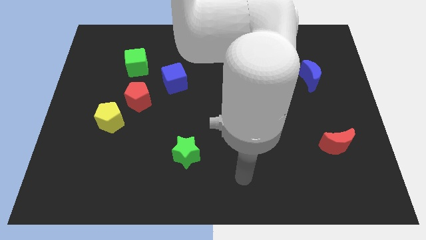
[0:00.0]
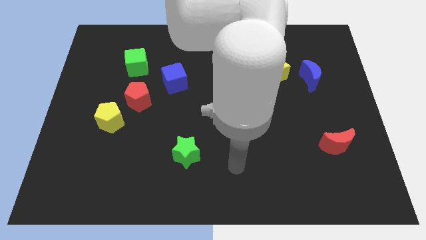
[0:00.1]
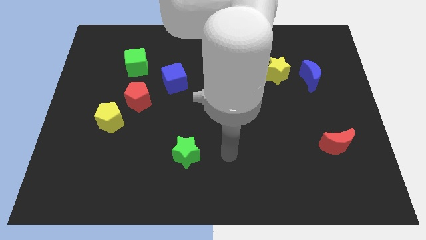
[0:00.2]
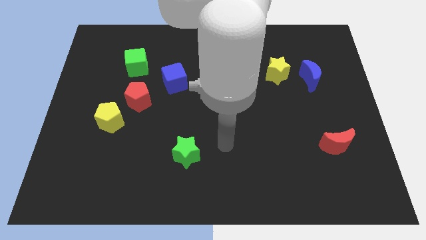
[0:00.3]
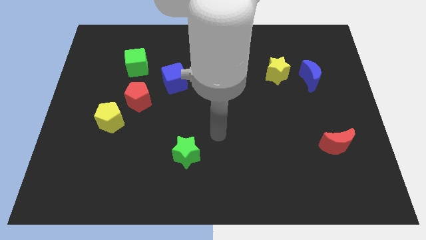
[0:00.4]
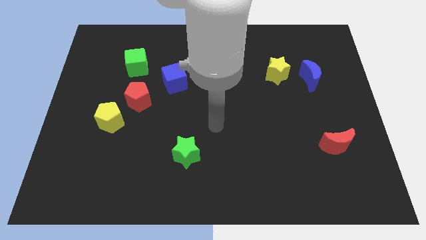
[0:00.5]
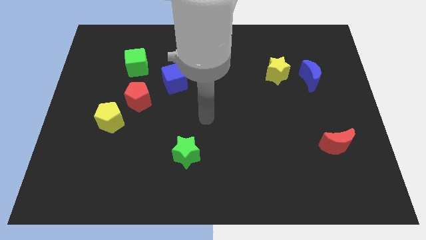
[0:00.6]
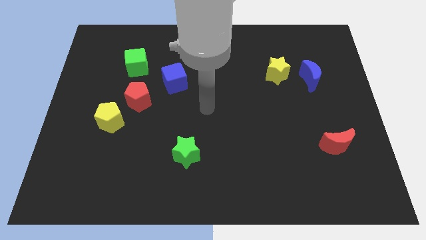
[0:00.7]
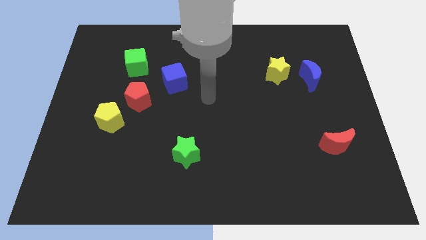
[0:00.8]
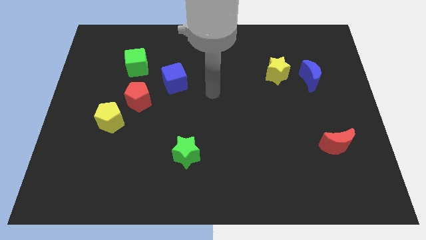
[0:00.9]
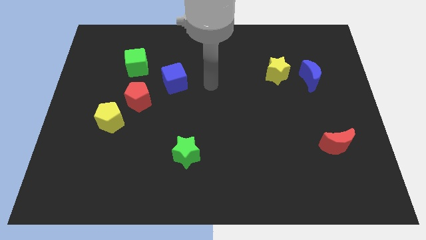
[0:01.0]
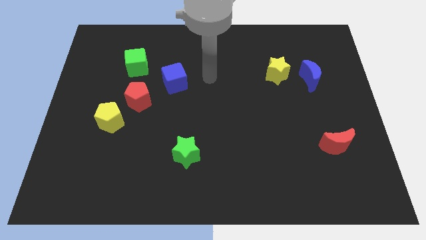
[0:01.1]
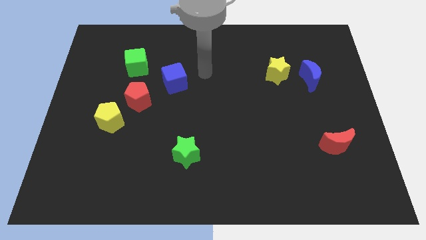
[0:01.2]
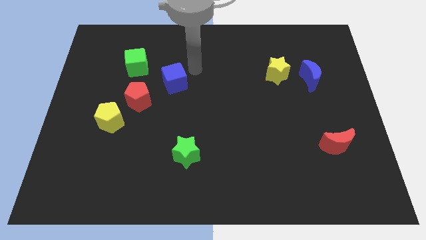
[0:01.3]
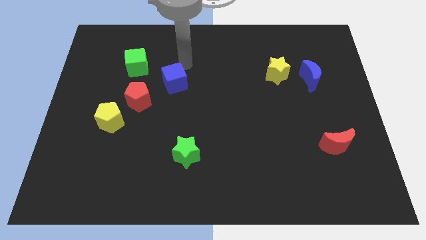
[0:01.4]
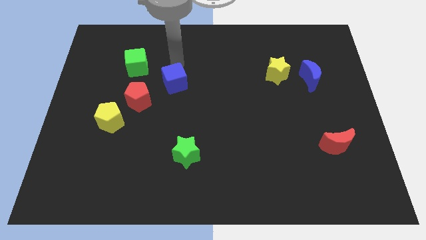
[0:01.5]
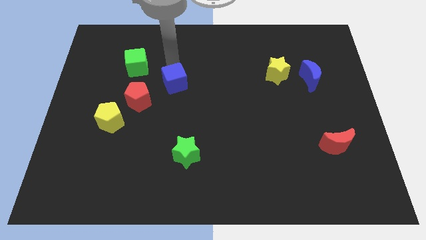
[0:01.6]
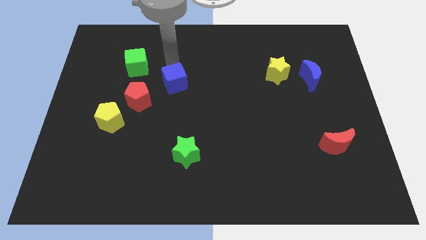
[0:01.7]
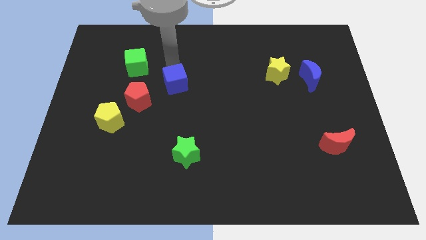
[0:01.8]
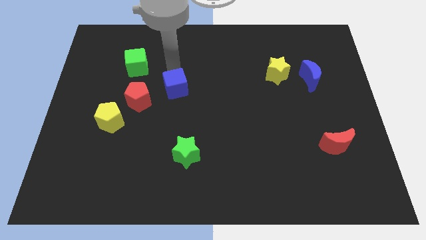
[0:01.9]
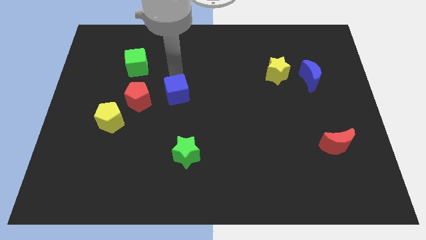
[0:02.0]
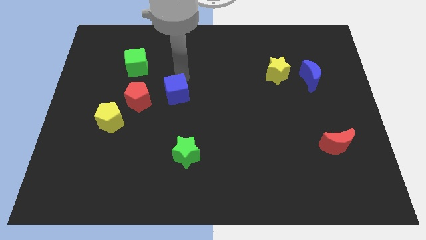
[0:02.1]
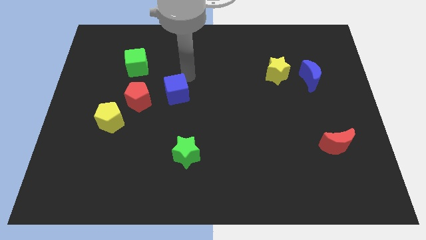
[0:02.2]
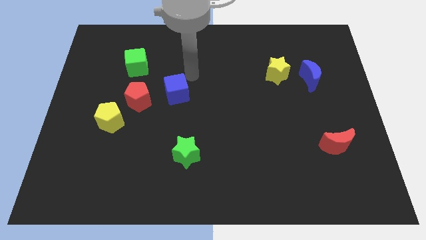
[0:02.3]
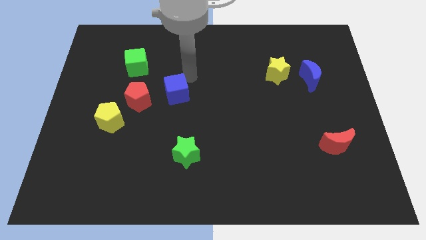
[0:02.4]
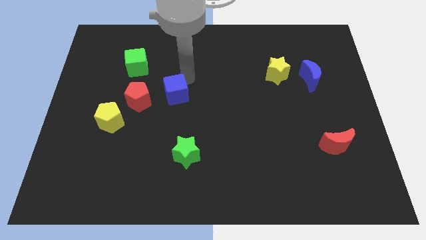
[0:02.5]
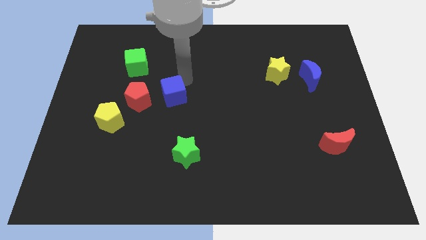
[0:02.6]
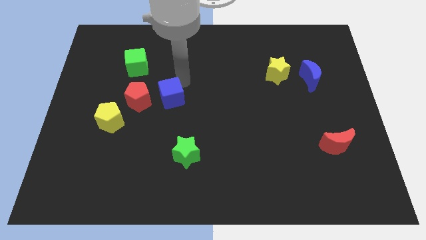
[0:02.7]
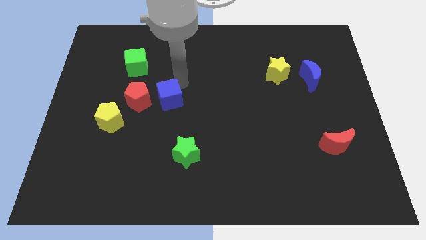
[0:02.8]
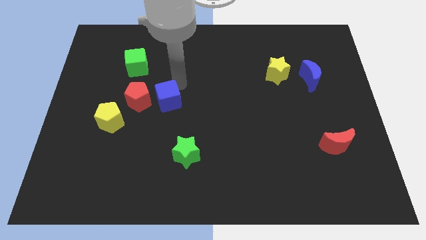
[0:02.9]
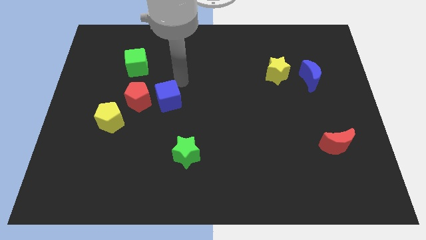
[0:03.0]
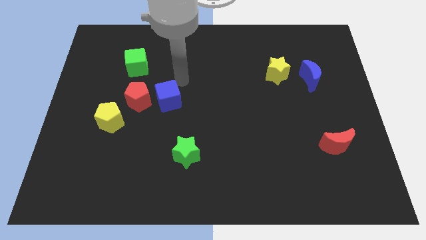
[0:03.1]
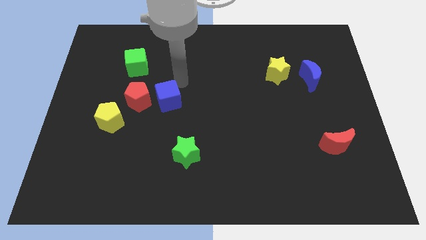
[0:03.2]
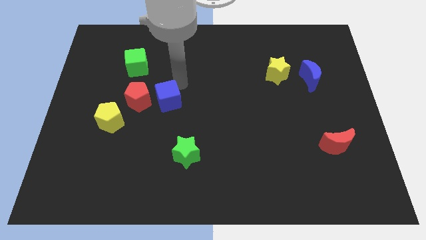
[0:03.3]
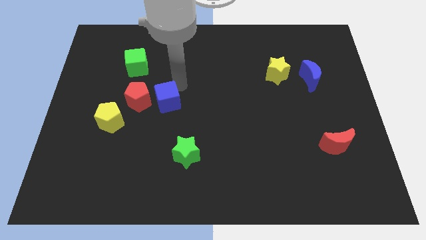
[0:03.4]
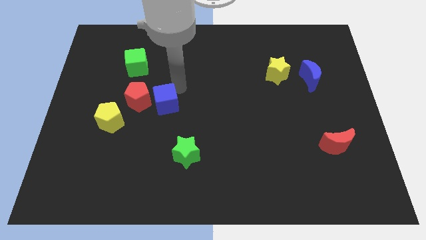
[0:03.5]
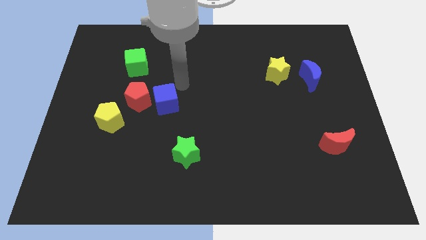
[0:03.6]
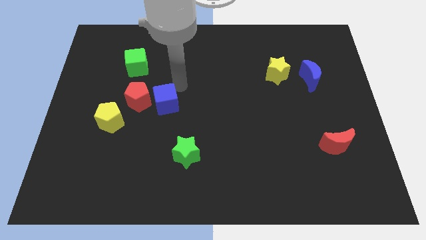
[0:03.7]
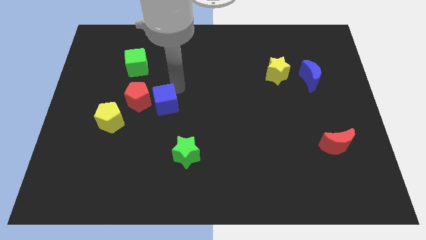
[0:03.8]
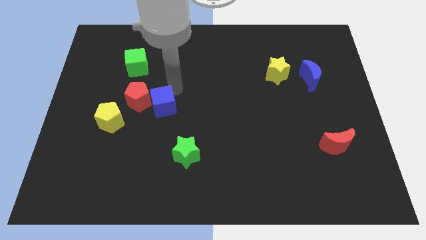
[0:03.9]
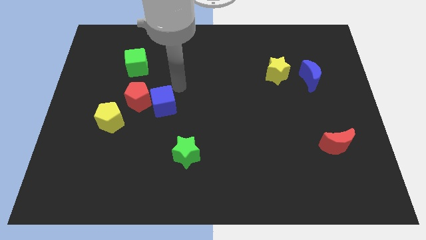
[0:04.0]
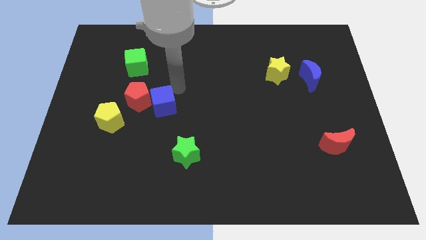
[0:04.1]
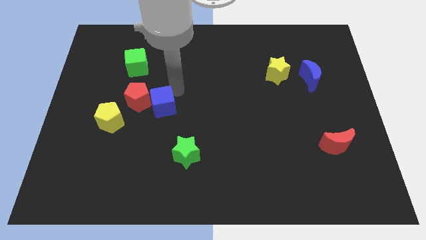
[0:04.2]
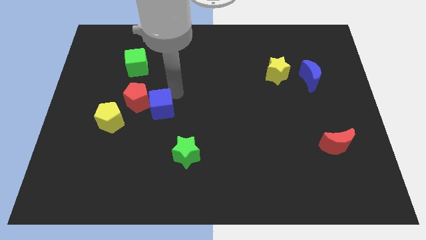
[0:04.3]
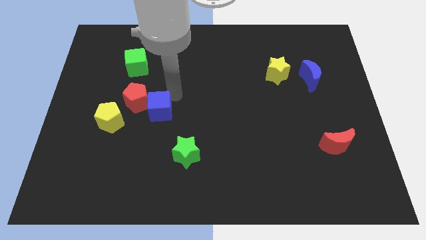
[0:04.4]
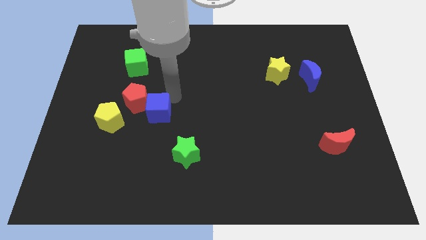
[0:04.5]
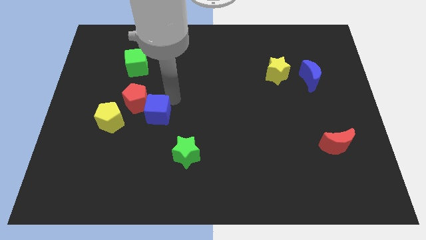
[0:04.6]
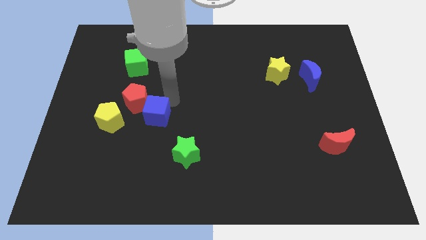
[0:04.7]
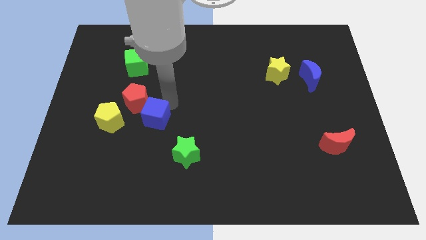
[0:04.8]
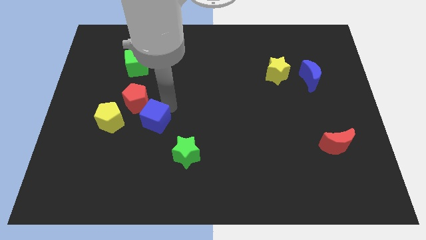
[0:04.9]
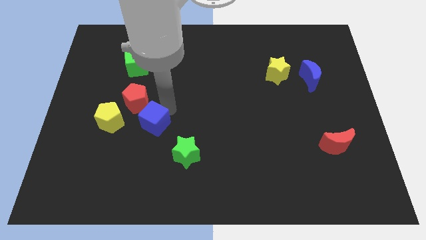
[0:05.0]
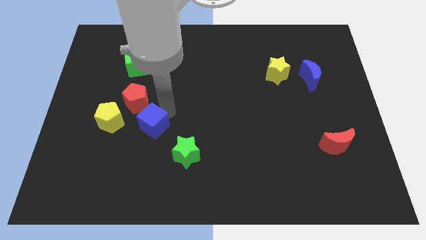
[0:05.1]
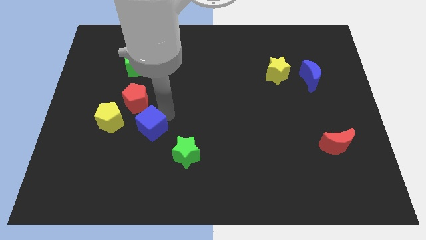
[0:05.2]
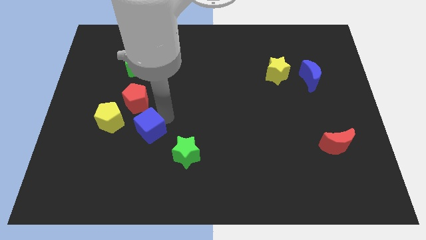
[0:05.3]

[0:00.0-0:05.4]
push the blue cube to the bottom right side of the yellow pentagon

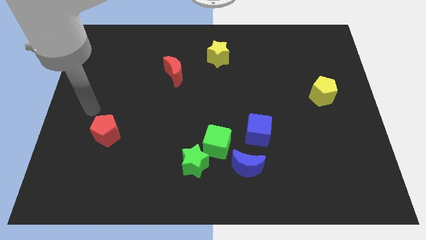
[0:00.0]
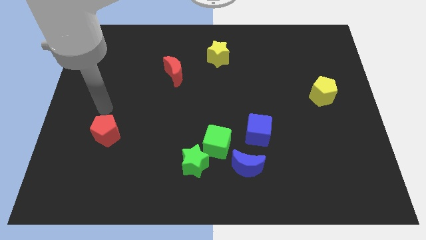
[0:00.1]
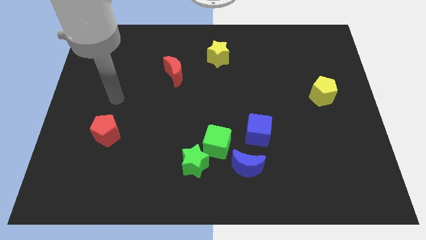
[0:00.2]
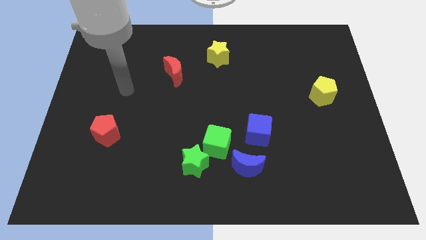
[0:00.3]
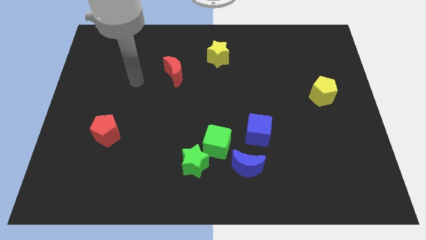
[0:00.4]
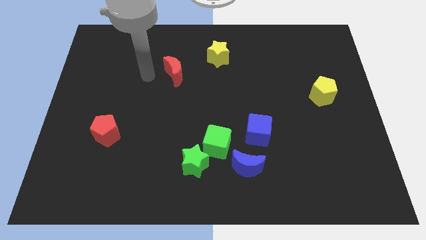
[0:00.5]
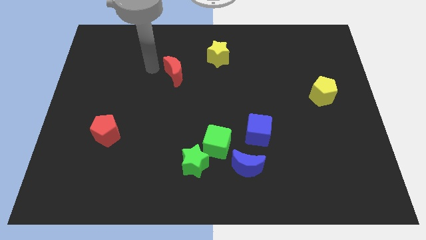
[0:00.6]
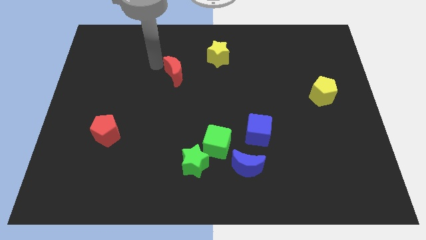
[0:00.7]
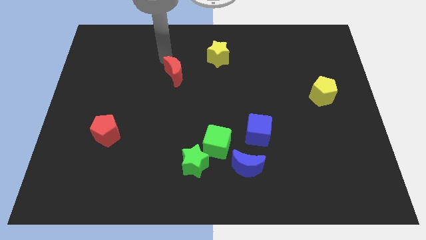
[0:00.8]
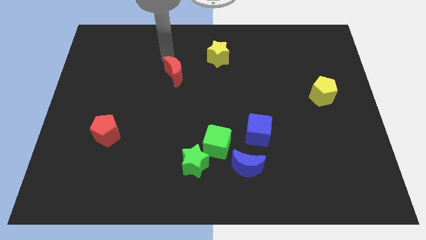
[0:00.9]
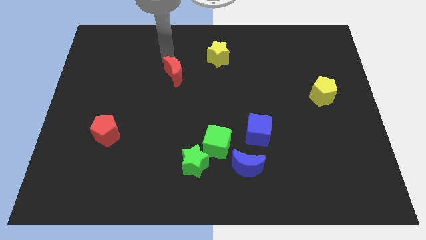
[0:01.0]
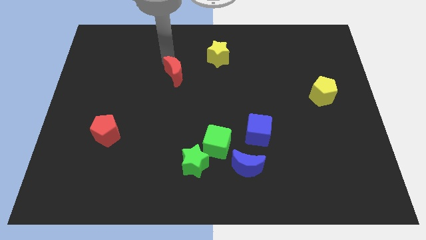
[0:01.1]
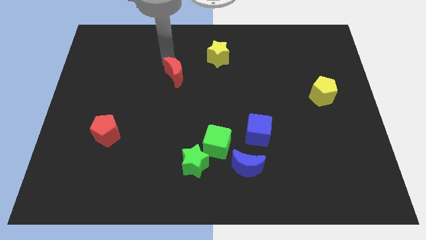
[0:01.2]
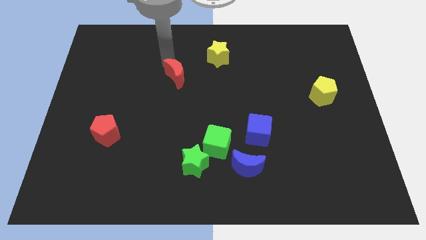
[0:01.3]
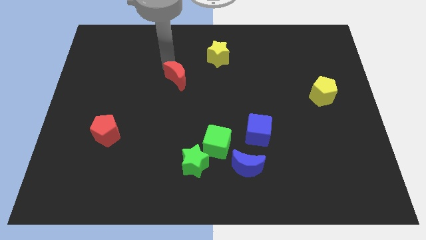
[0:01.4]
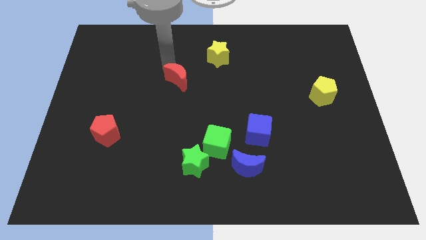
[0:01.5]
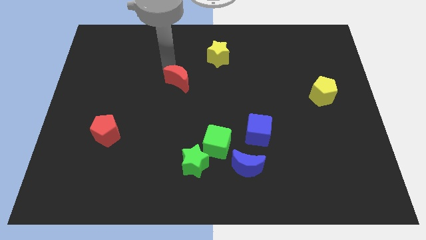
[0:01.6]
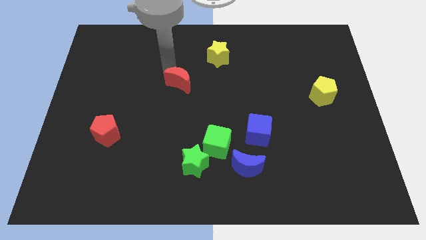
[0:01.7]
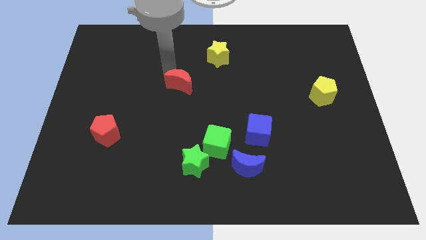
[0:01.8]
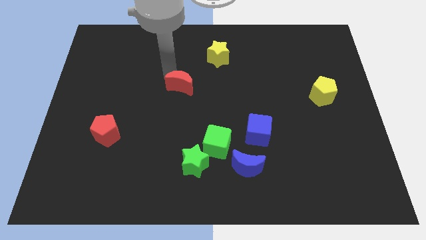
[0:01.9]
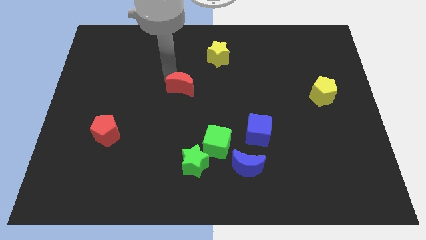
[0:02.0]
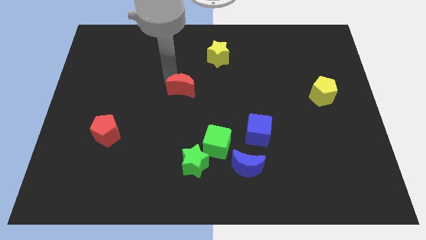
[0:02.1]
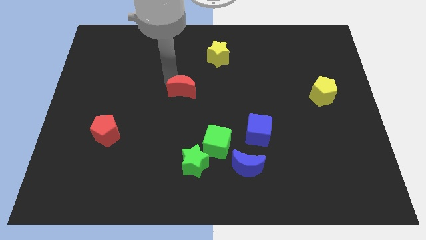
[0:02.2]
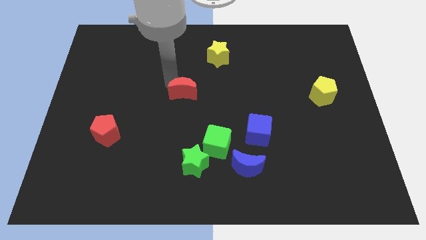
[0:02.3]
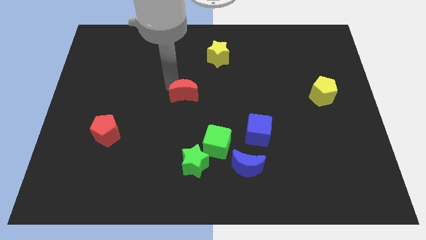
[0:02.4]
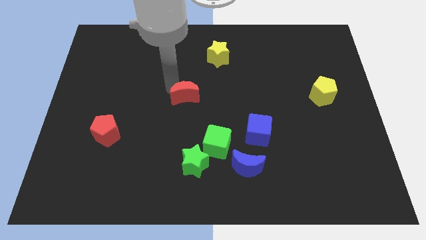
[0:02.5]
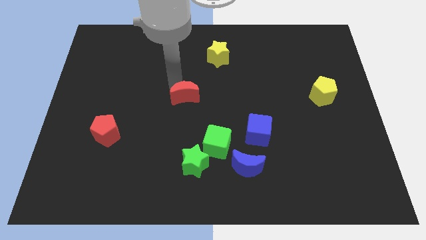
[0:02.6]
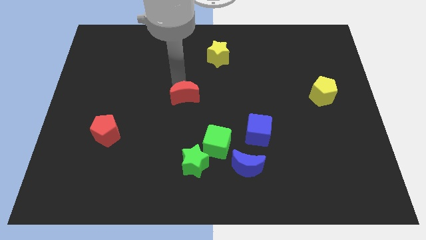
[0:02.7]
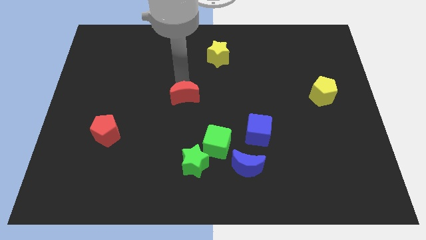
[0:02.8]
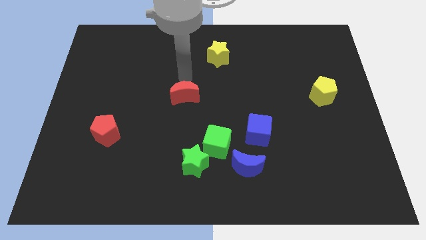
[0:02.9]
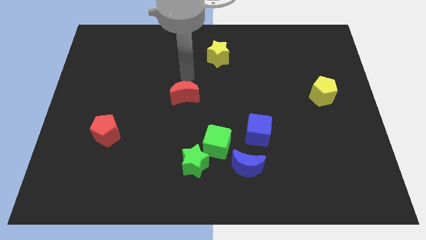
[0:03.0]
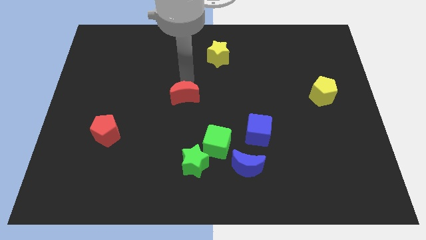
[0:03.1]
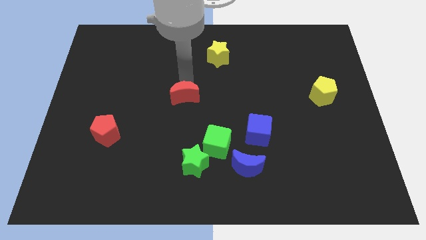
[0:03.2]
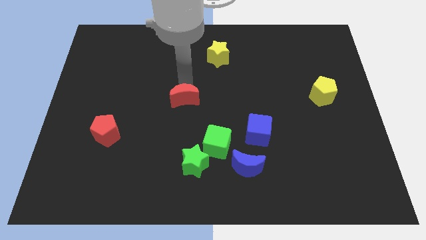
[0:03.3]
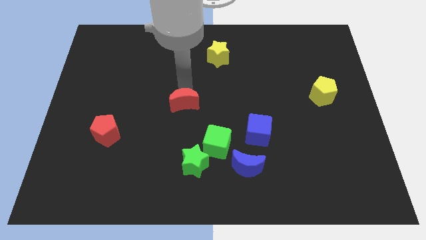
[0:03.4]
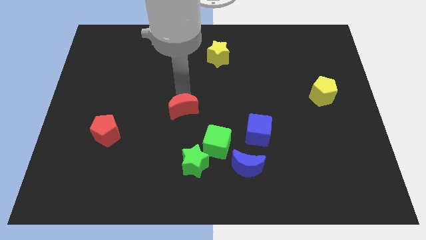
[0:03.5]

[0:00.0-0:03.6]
slide the red moon to the top left side of the green cube
